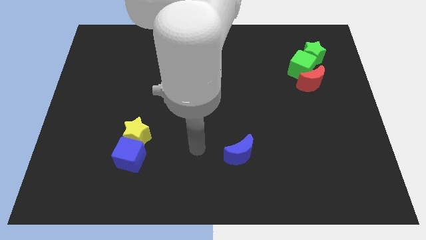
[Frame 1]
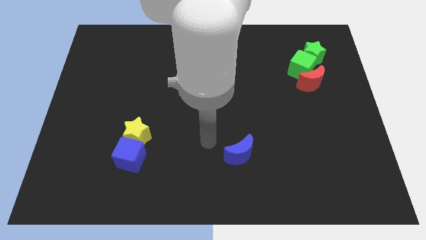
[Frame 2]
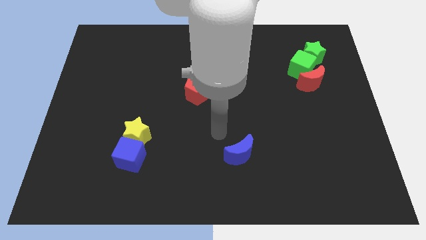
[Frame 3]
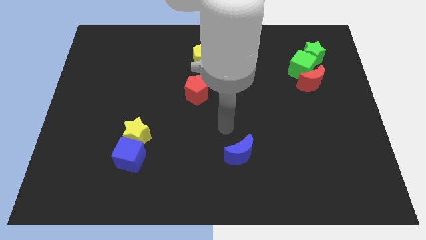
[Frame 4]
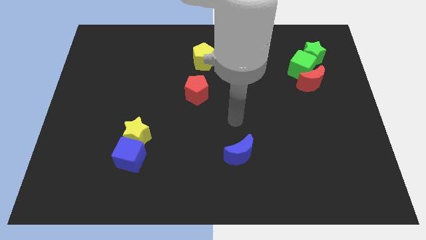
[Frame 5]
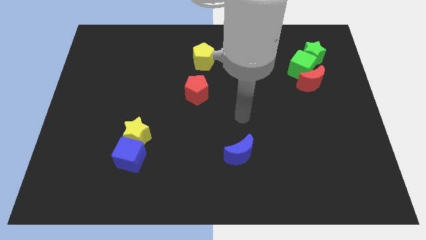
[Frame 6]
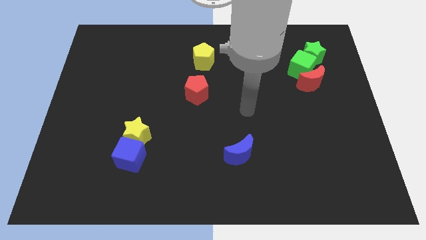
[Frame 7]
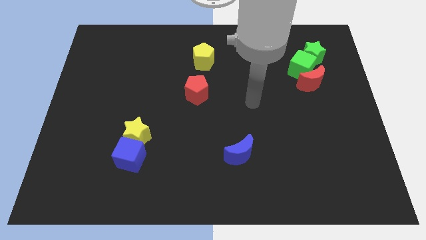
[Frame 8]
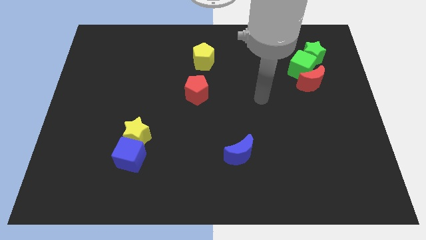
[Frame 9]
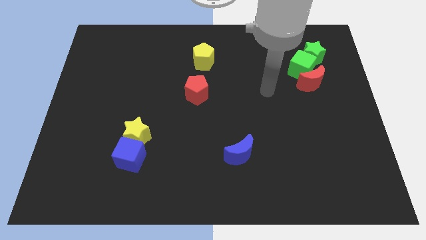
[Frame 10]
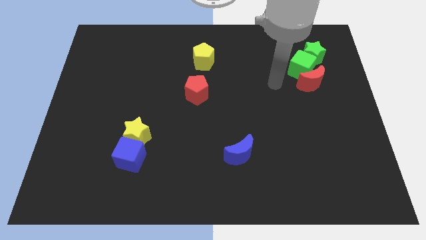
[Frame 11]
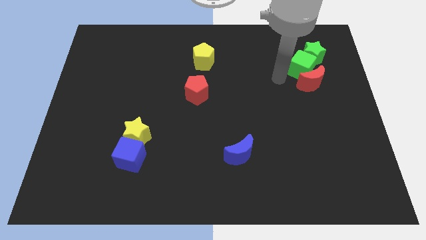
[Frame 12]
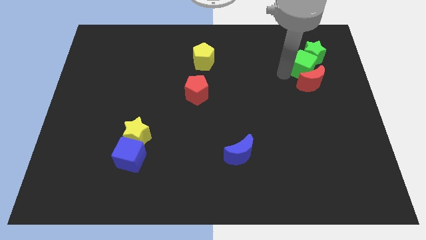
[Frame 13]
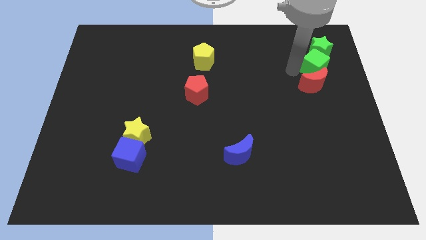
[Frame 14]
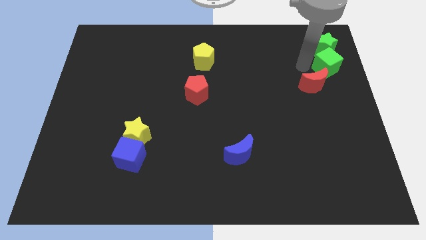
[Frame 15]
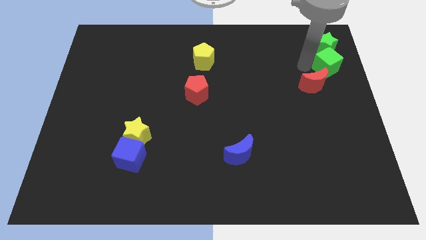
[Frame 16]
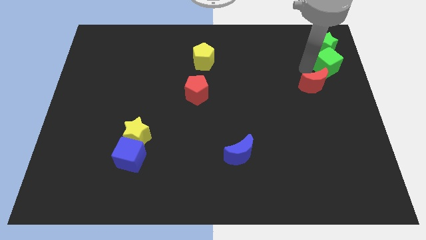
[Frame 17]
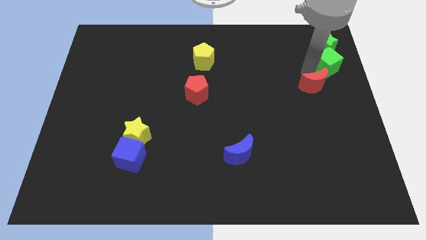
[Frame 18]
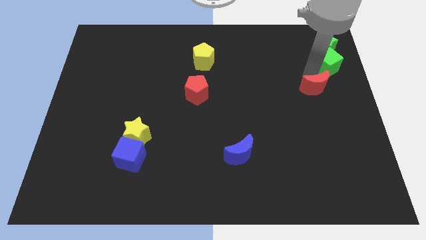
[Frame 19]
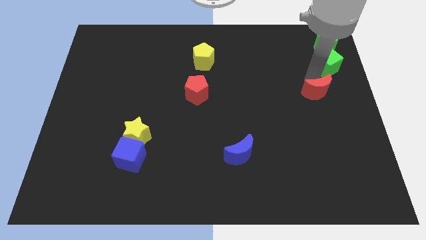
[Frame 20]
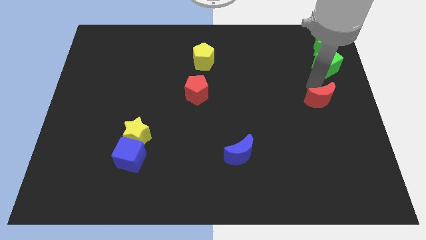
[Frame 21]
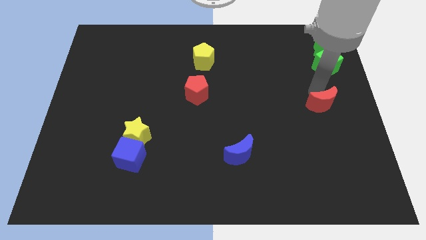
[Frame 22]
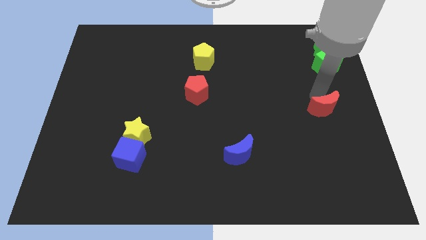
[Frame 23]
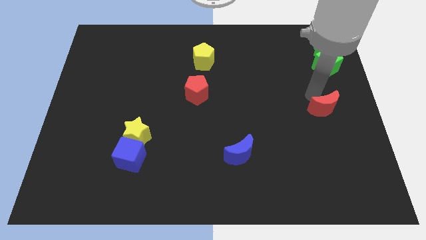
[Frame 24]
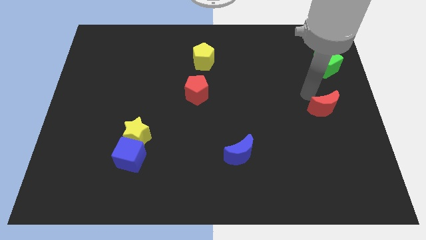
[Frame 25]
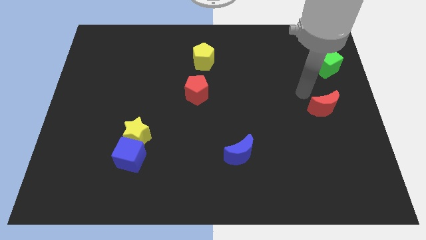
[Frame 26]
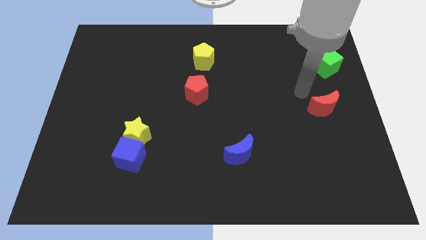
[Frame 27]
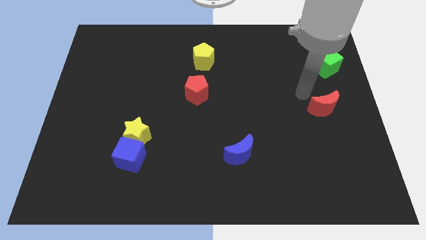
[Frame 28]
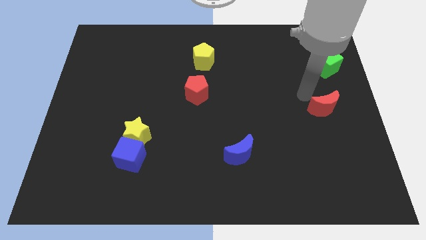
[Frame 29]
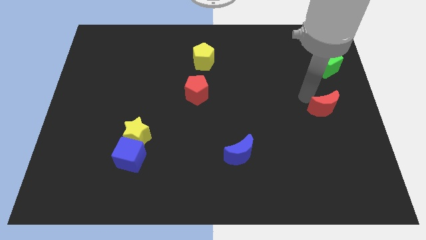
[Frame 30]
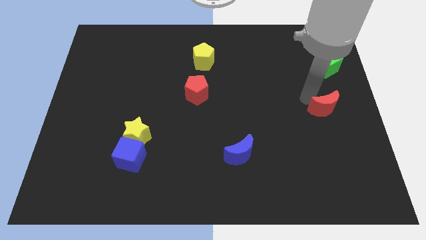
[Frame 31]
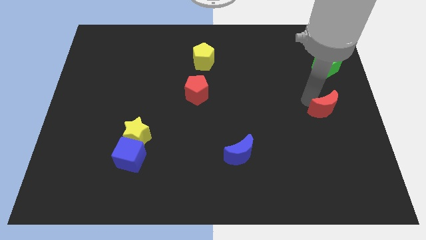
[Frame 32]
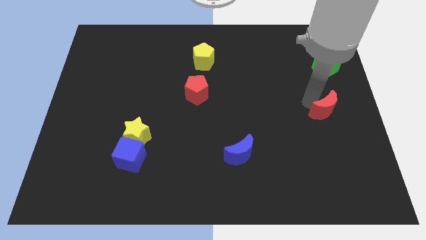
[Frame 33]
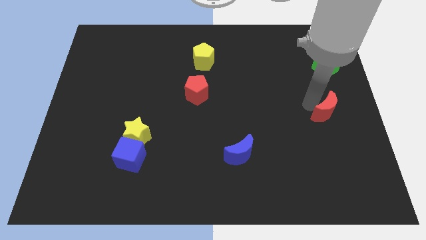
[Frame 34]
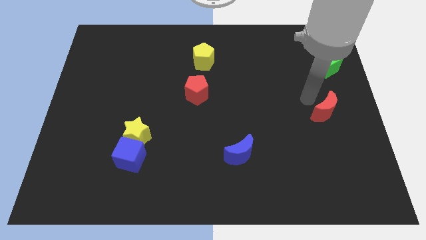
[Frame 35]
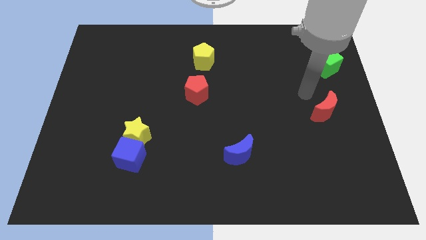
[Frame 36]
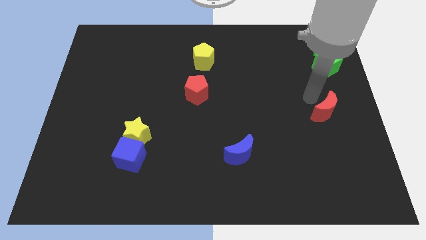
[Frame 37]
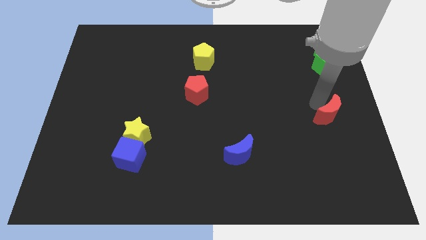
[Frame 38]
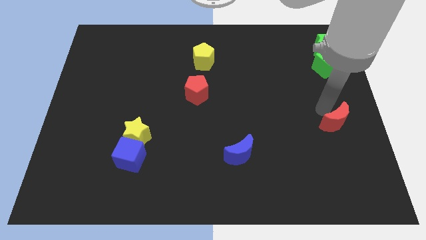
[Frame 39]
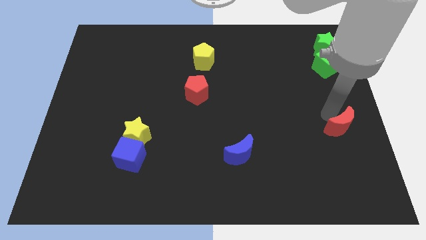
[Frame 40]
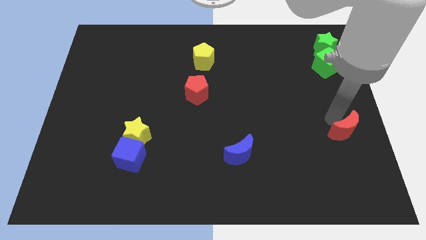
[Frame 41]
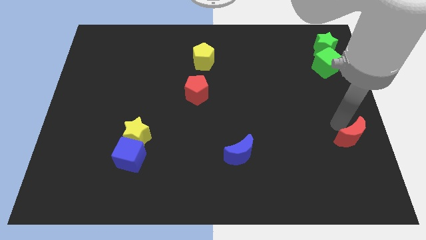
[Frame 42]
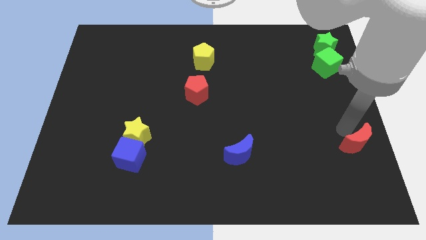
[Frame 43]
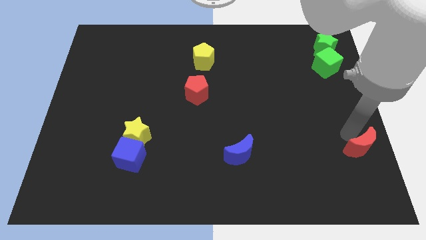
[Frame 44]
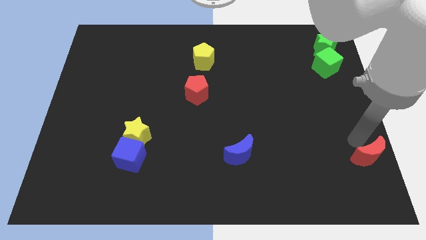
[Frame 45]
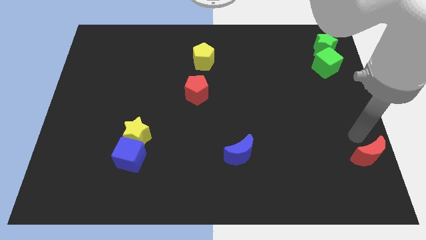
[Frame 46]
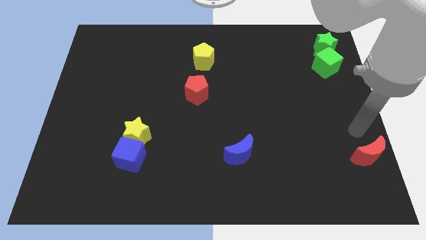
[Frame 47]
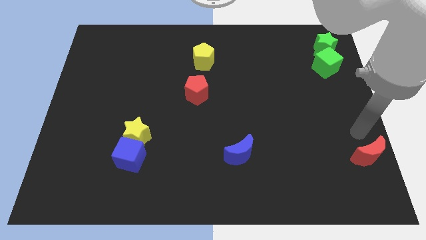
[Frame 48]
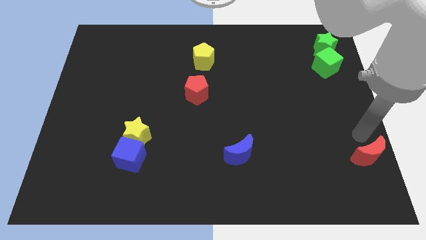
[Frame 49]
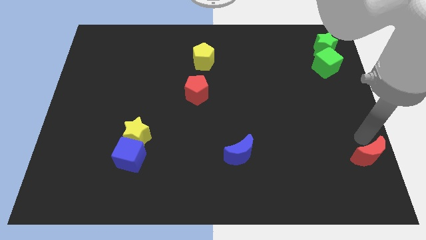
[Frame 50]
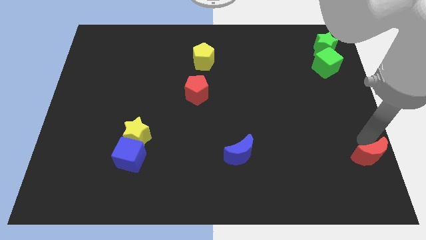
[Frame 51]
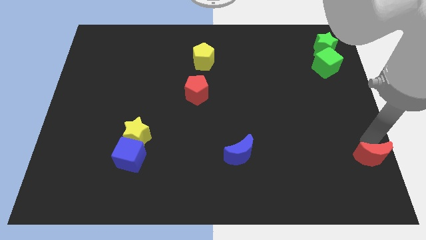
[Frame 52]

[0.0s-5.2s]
push the red moon to the lower right corner
